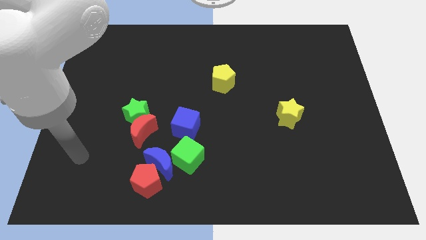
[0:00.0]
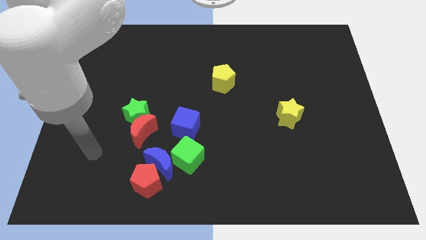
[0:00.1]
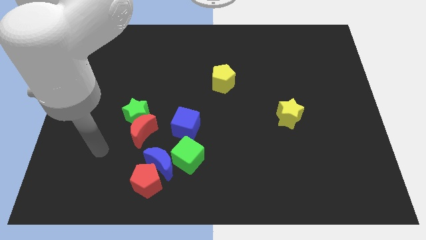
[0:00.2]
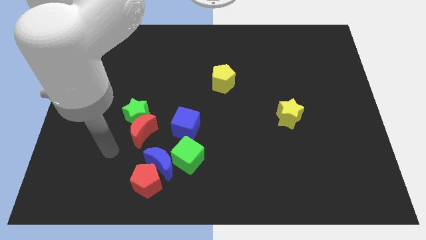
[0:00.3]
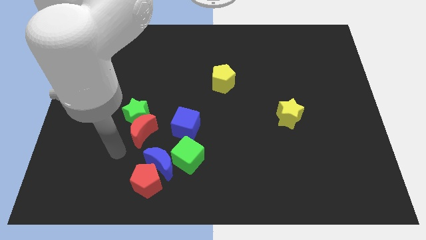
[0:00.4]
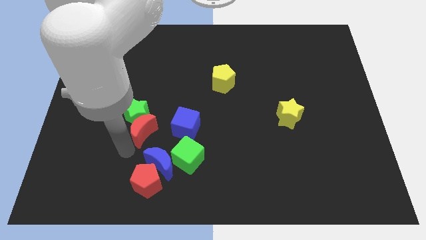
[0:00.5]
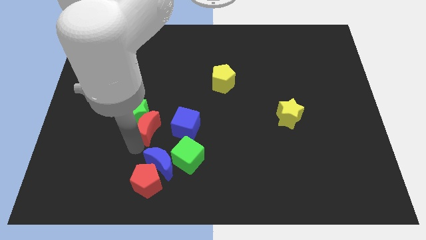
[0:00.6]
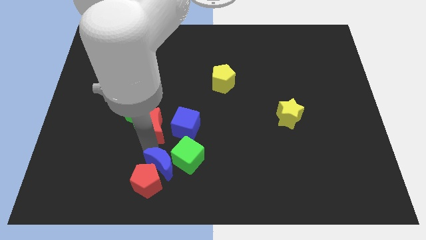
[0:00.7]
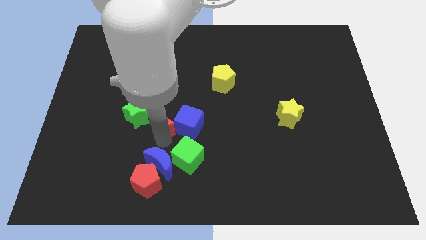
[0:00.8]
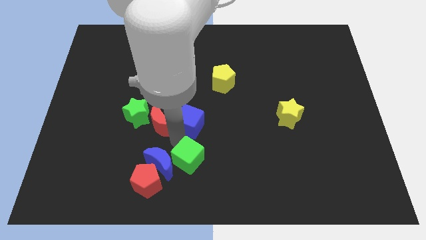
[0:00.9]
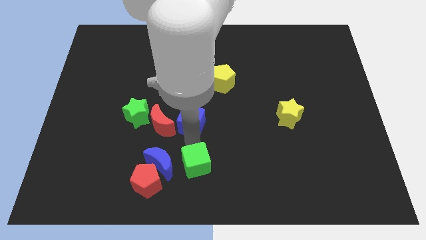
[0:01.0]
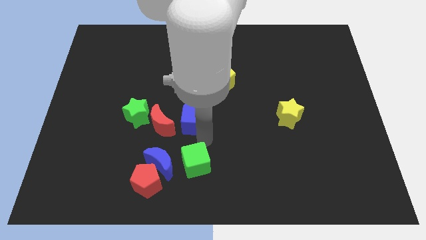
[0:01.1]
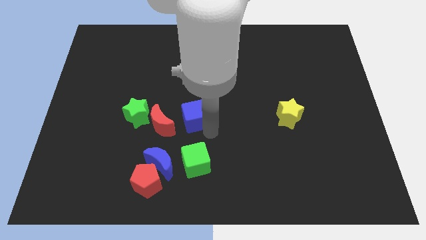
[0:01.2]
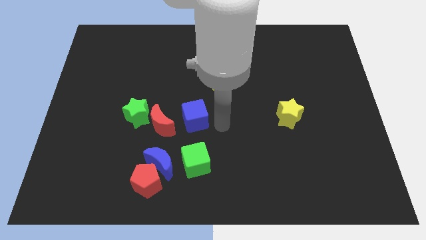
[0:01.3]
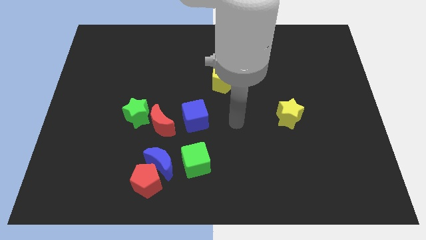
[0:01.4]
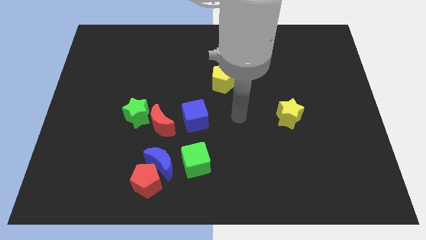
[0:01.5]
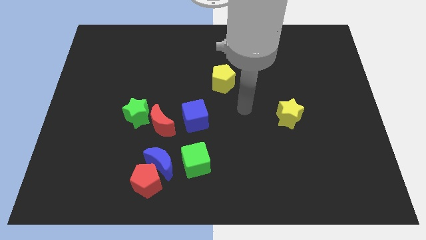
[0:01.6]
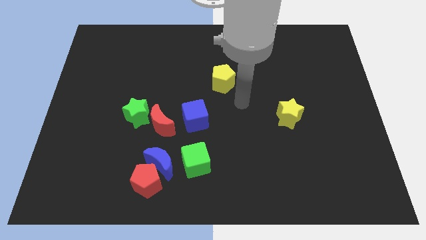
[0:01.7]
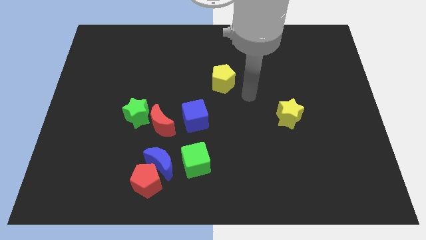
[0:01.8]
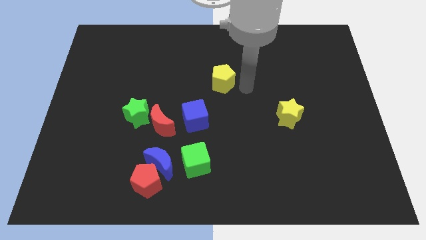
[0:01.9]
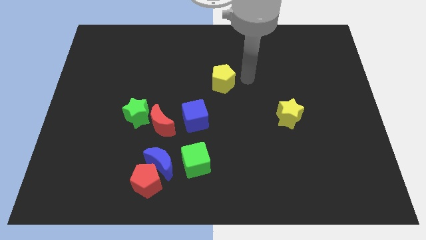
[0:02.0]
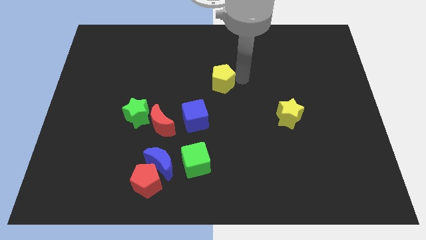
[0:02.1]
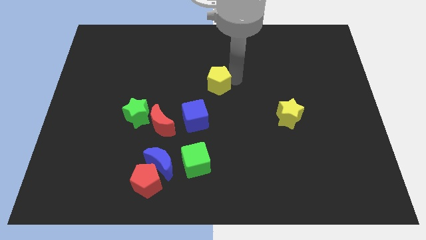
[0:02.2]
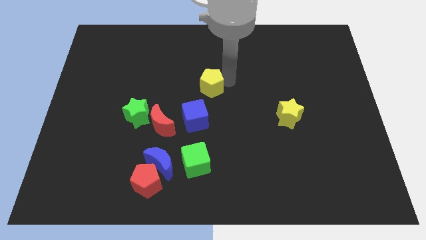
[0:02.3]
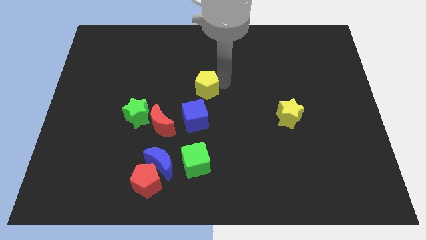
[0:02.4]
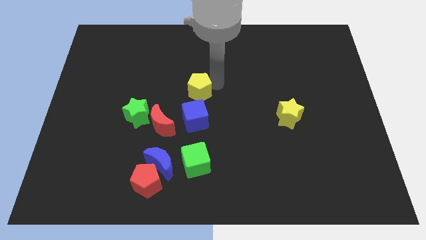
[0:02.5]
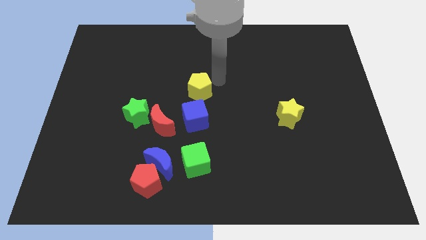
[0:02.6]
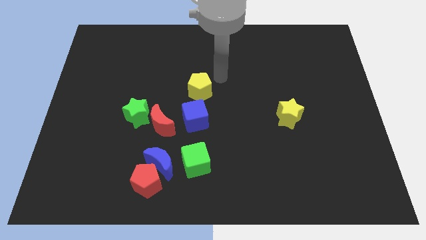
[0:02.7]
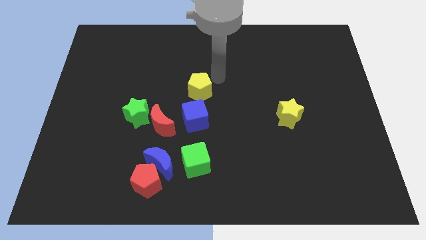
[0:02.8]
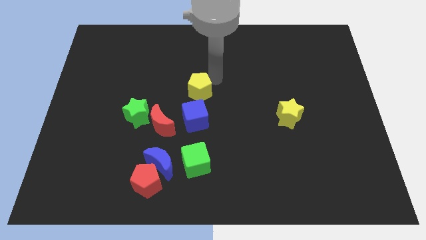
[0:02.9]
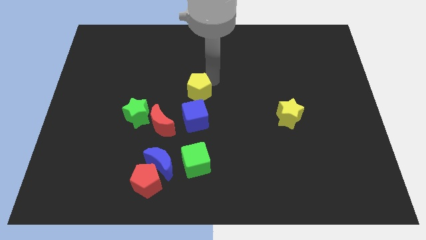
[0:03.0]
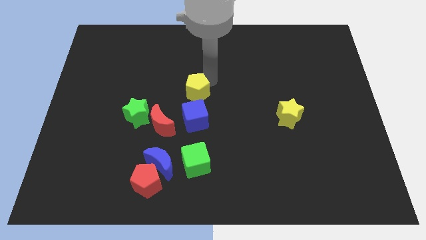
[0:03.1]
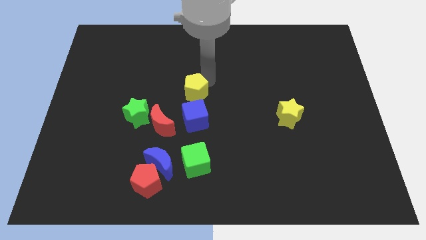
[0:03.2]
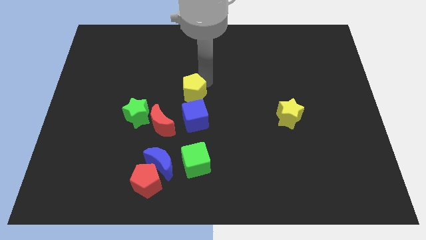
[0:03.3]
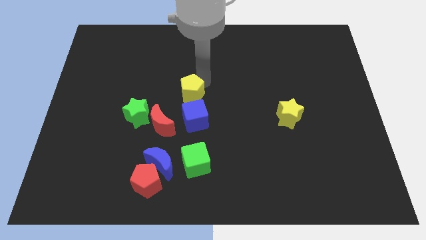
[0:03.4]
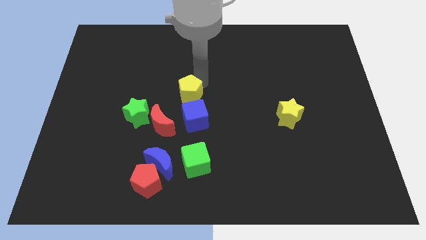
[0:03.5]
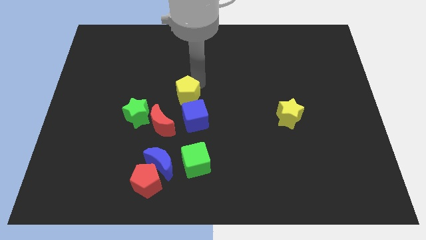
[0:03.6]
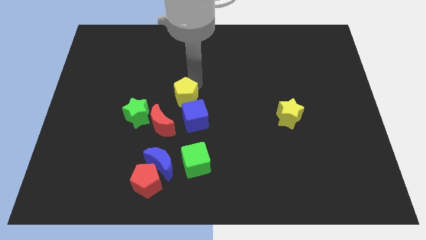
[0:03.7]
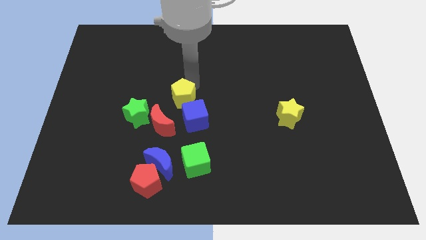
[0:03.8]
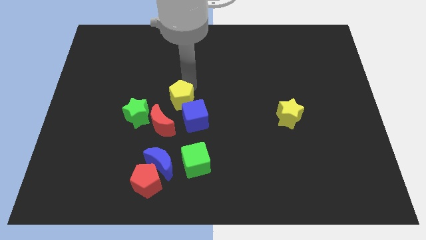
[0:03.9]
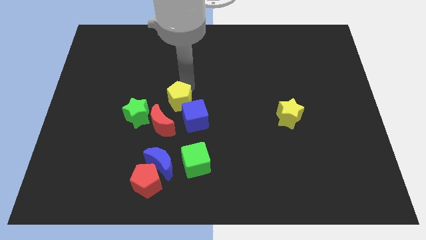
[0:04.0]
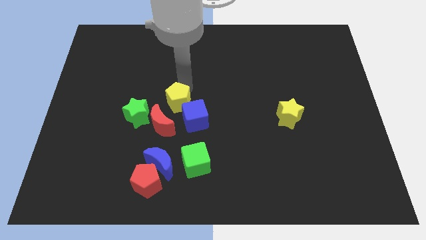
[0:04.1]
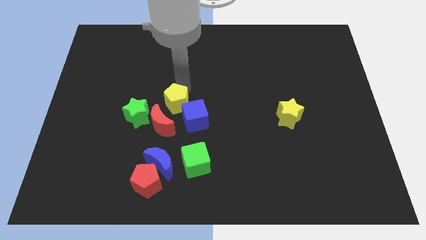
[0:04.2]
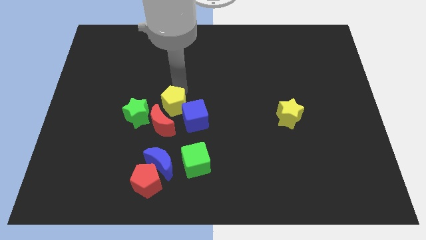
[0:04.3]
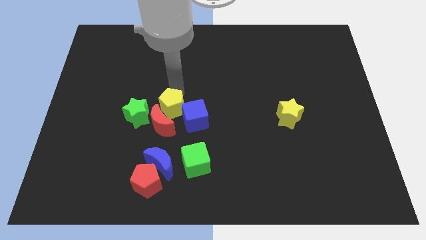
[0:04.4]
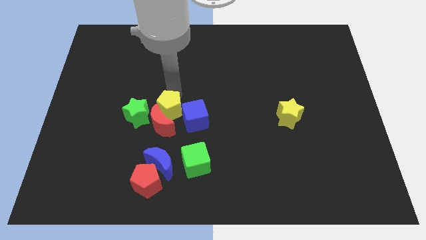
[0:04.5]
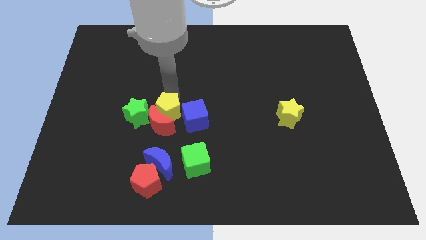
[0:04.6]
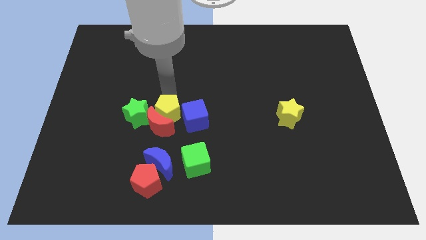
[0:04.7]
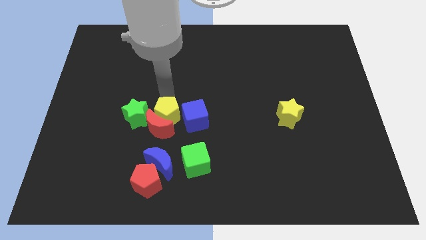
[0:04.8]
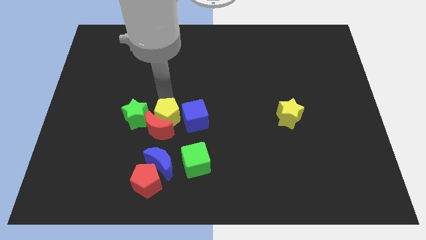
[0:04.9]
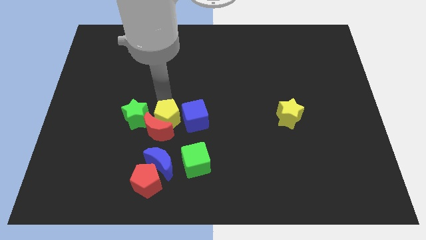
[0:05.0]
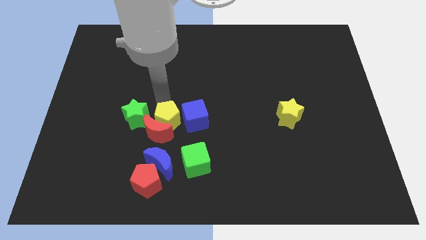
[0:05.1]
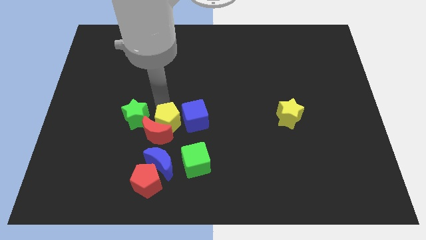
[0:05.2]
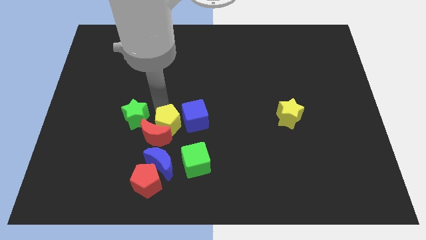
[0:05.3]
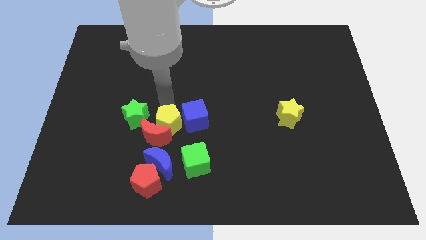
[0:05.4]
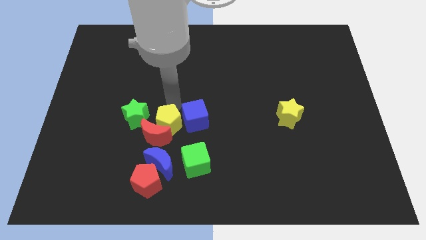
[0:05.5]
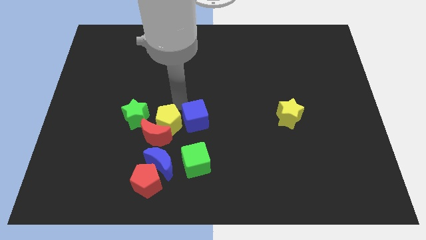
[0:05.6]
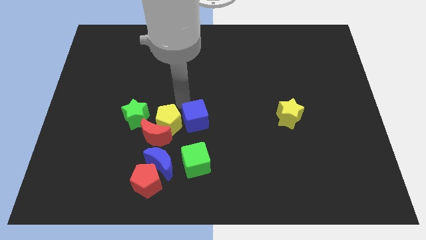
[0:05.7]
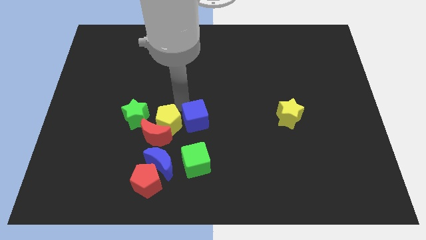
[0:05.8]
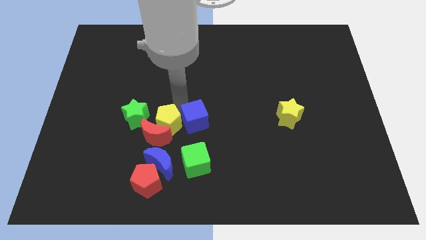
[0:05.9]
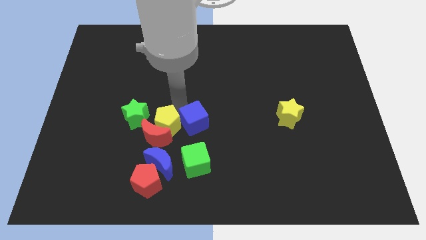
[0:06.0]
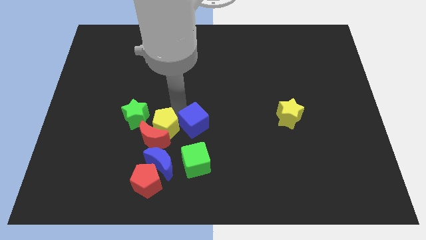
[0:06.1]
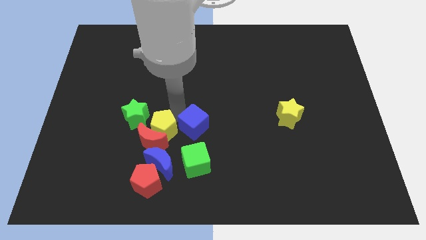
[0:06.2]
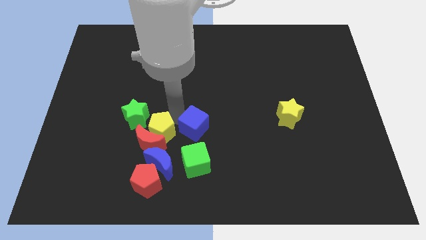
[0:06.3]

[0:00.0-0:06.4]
move the yellow pentagon down and to the left

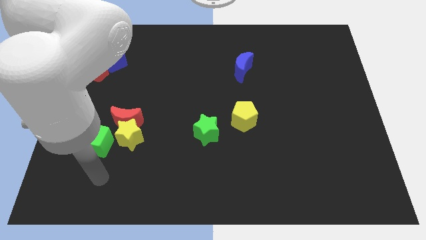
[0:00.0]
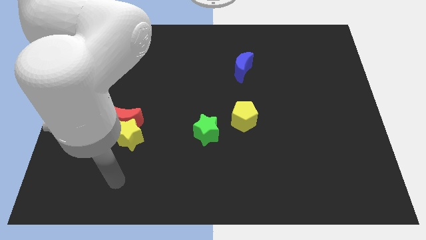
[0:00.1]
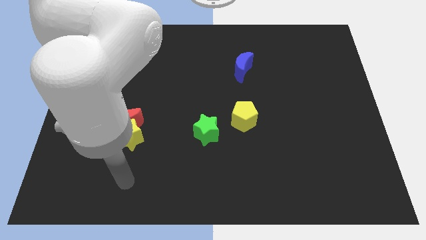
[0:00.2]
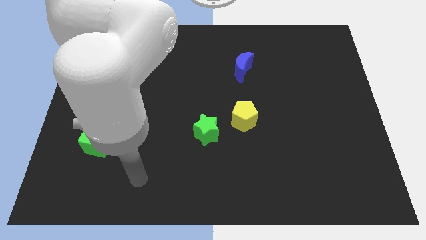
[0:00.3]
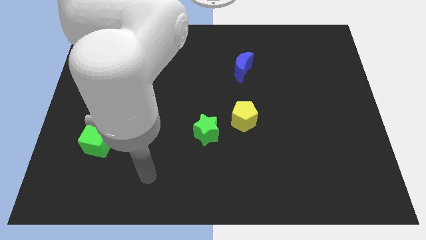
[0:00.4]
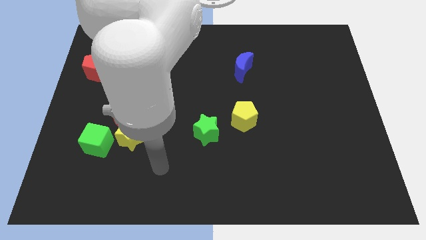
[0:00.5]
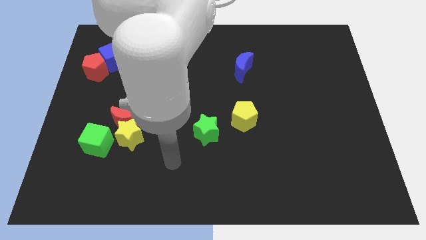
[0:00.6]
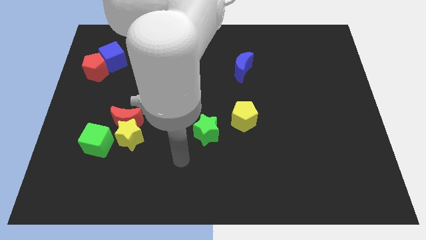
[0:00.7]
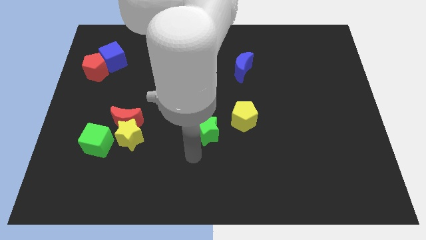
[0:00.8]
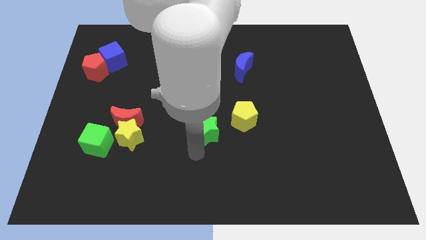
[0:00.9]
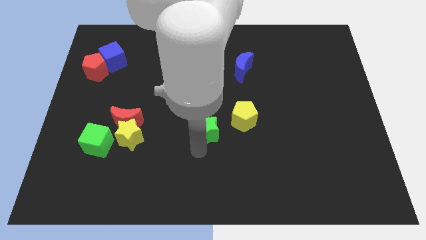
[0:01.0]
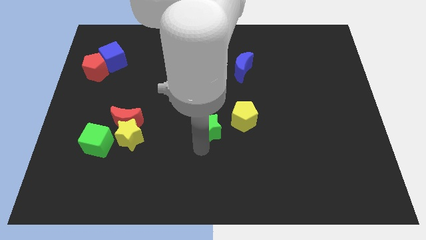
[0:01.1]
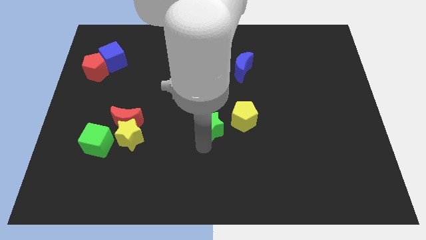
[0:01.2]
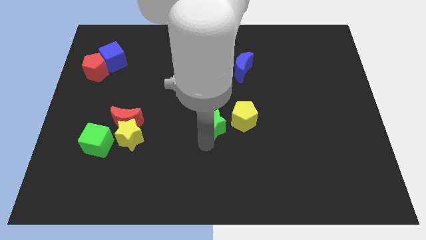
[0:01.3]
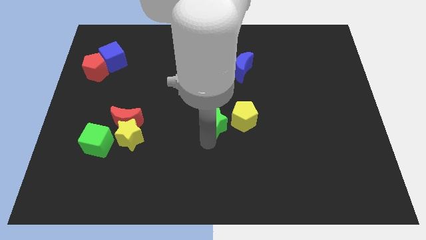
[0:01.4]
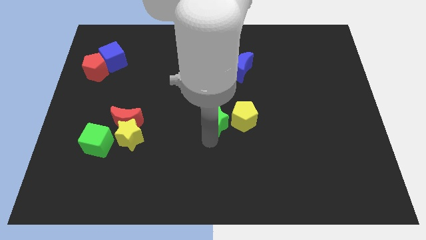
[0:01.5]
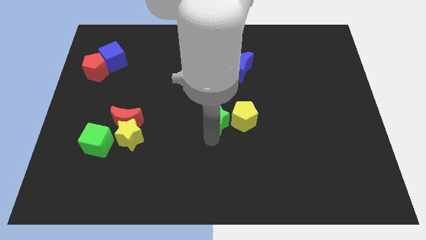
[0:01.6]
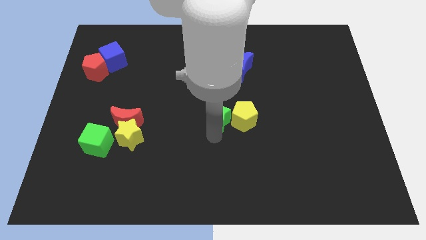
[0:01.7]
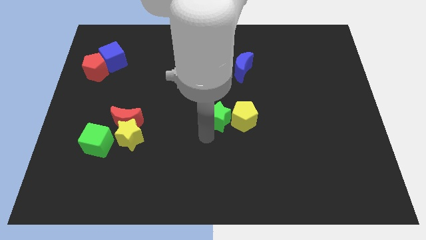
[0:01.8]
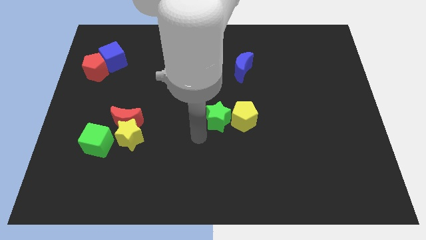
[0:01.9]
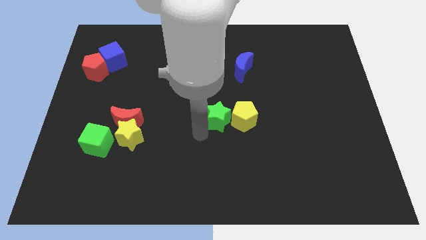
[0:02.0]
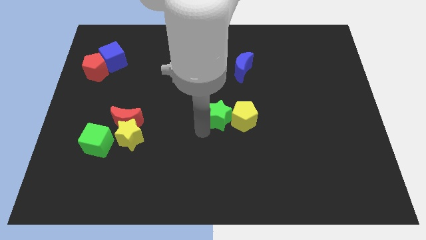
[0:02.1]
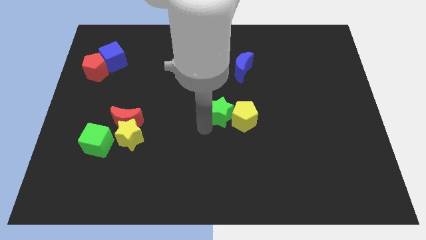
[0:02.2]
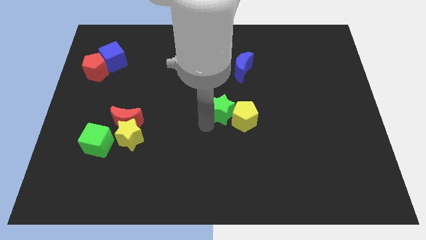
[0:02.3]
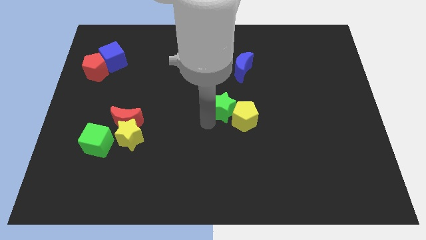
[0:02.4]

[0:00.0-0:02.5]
push the green star a bit diagonally up and to the right
